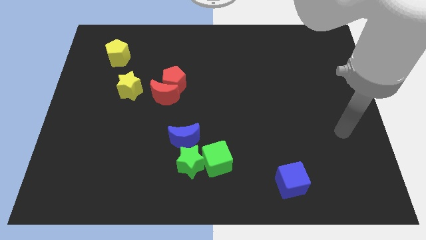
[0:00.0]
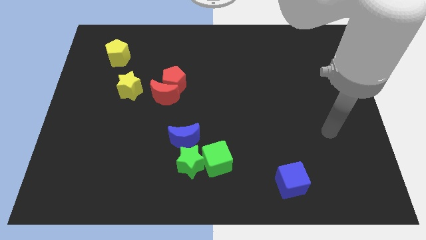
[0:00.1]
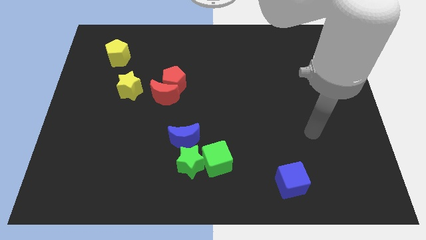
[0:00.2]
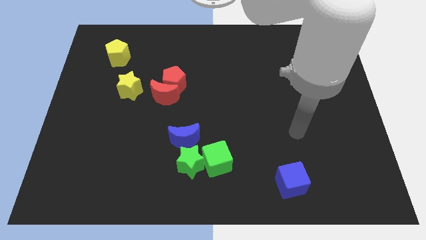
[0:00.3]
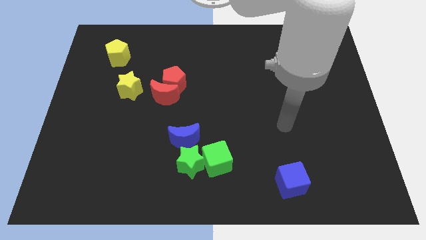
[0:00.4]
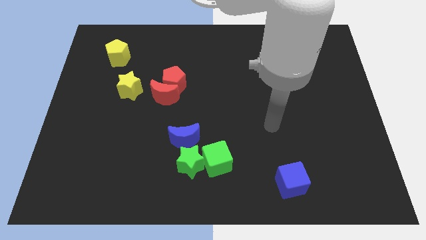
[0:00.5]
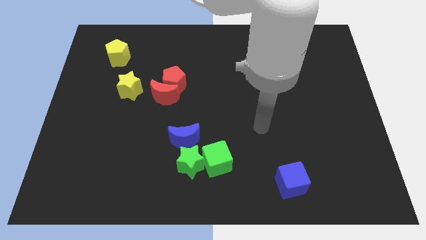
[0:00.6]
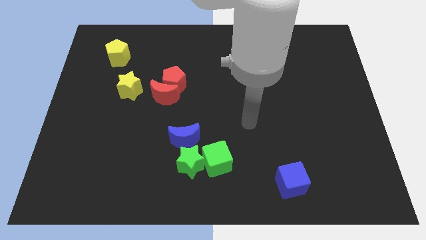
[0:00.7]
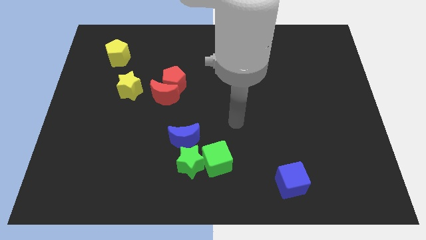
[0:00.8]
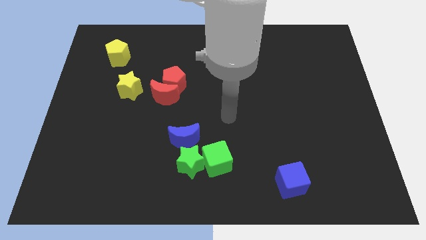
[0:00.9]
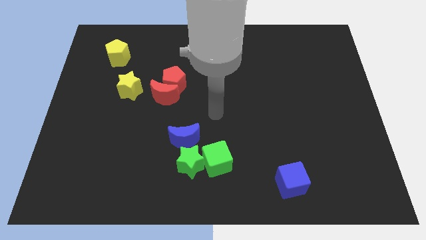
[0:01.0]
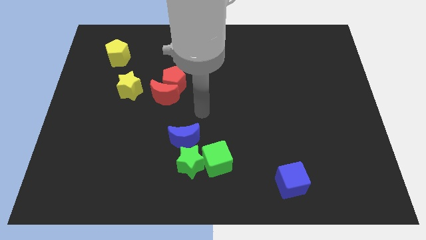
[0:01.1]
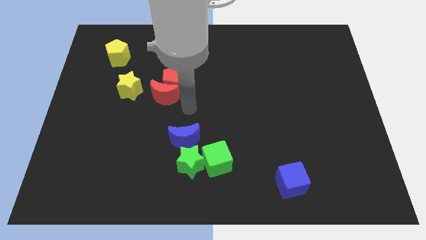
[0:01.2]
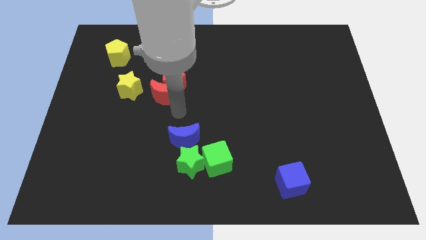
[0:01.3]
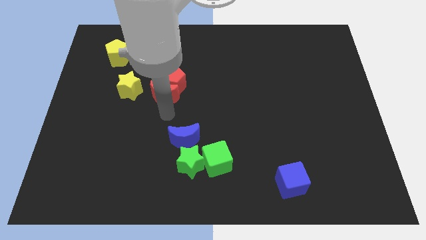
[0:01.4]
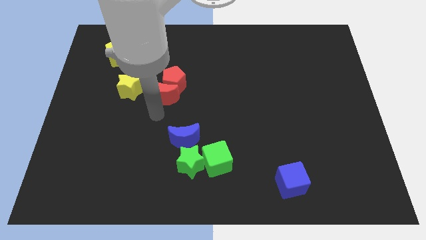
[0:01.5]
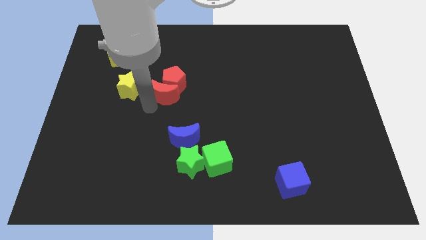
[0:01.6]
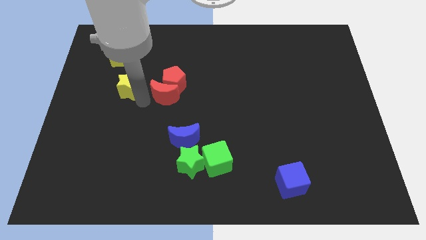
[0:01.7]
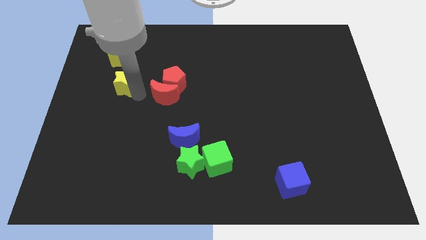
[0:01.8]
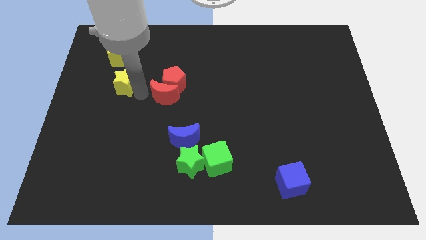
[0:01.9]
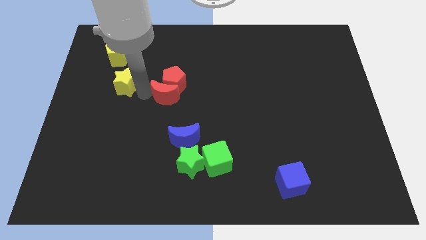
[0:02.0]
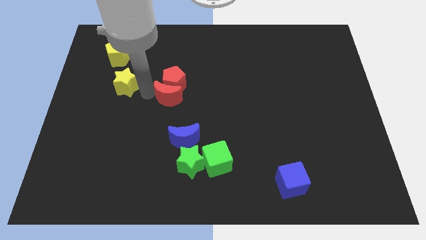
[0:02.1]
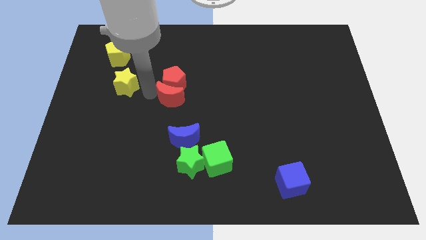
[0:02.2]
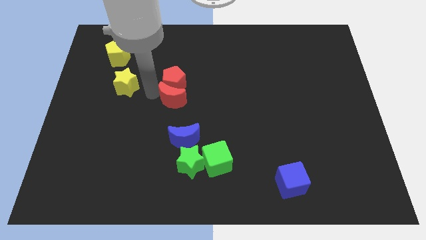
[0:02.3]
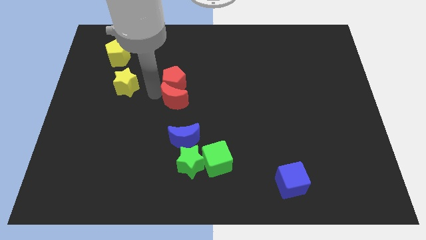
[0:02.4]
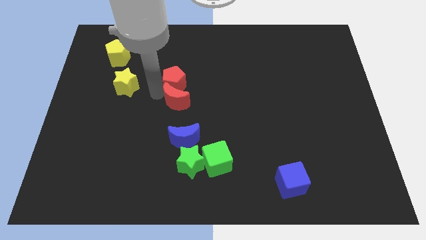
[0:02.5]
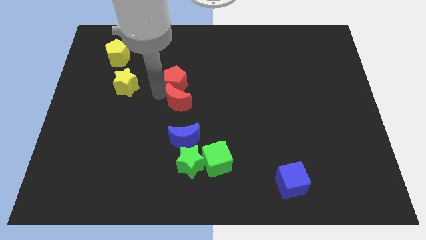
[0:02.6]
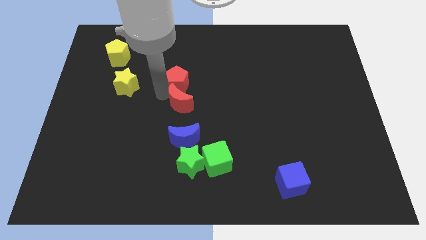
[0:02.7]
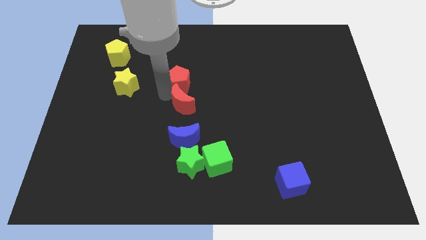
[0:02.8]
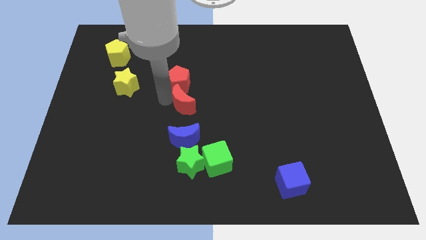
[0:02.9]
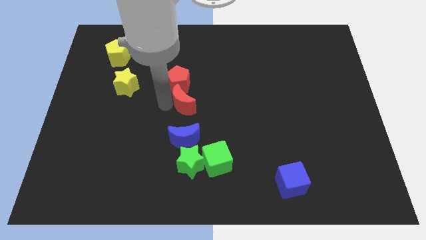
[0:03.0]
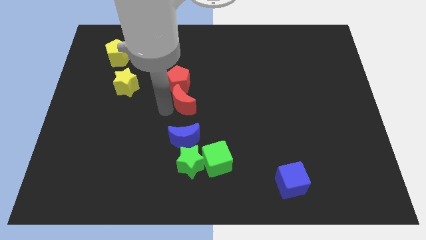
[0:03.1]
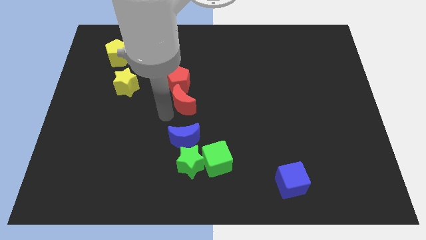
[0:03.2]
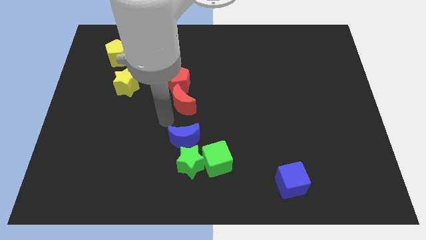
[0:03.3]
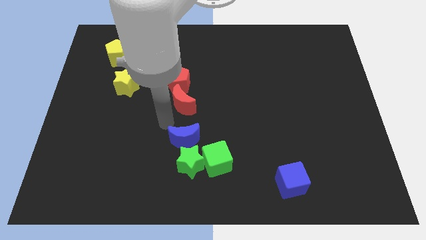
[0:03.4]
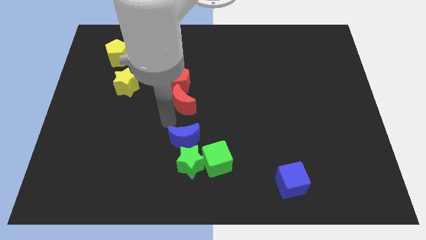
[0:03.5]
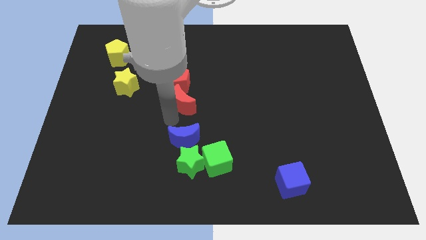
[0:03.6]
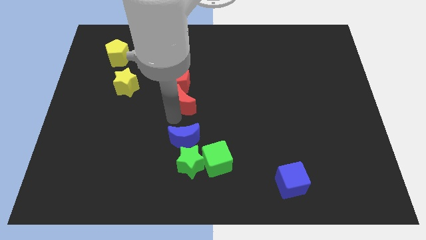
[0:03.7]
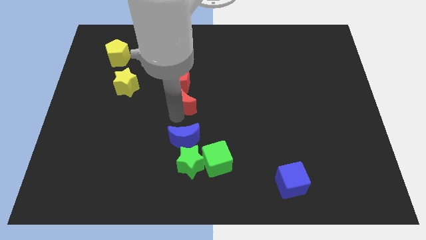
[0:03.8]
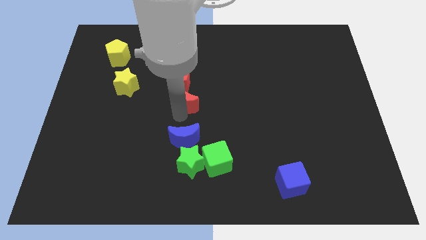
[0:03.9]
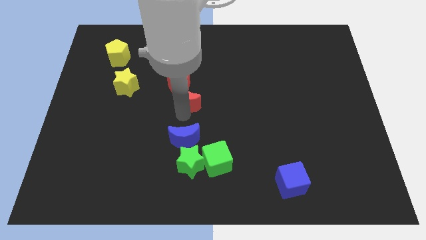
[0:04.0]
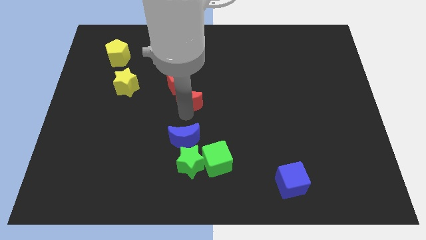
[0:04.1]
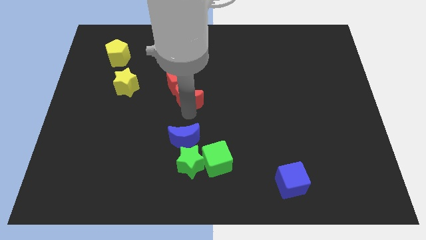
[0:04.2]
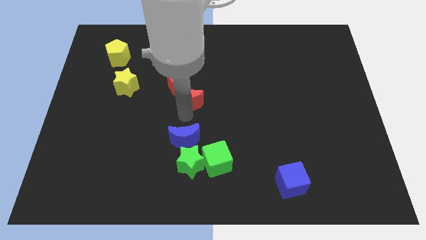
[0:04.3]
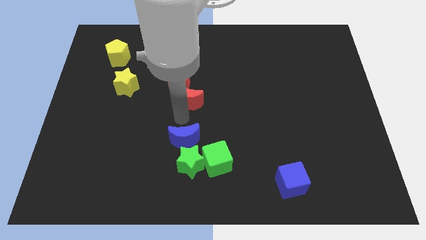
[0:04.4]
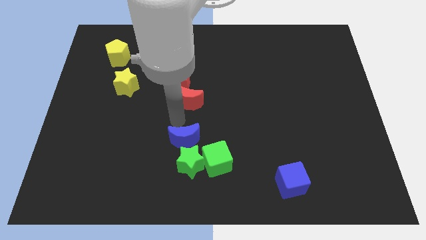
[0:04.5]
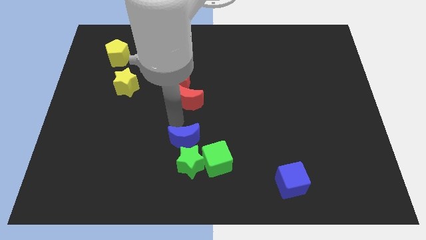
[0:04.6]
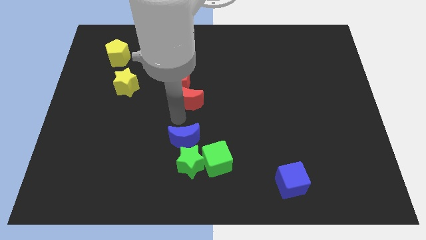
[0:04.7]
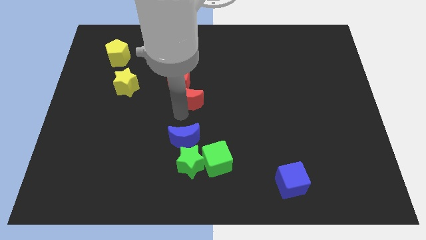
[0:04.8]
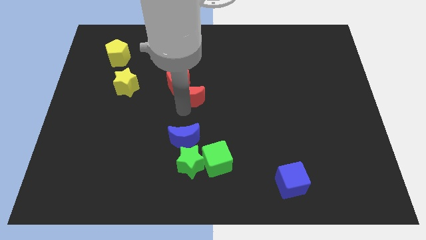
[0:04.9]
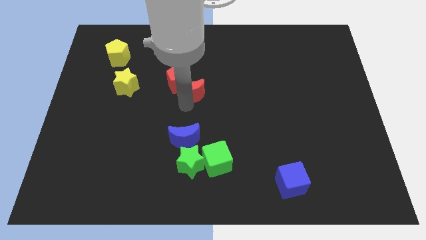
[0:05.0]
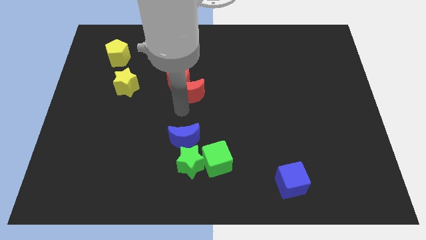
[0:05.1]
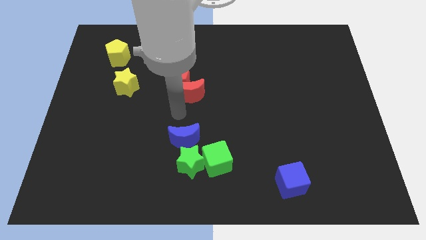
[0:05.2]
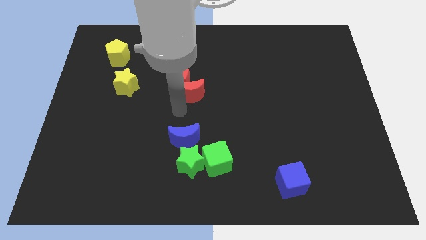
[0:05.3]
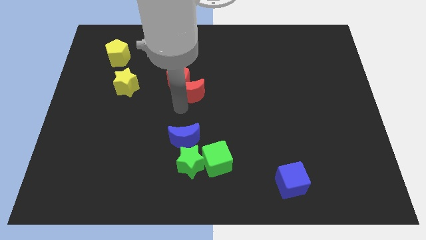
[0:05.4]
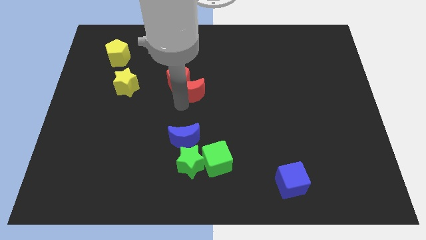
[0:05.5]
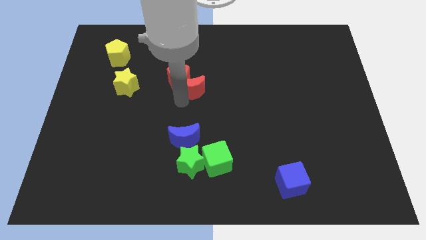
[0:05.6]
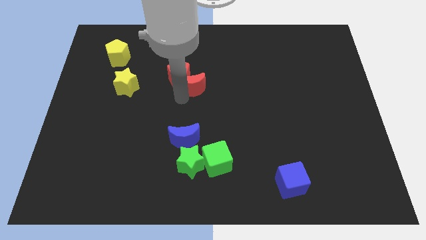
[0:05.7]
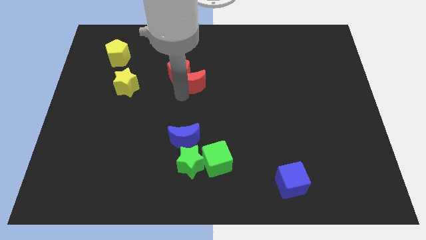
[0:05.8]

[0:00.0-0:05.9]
push the red moon diagonally upwards and right a bit

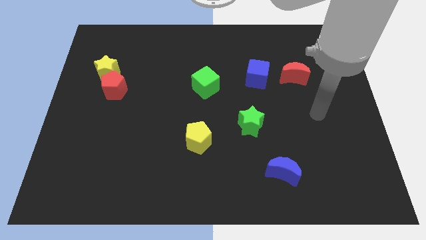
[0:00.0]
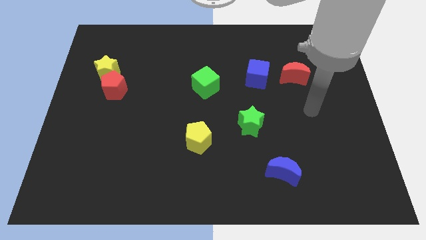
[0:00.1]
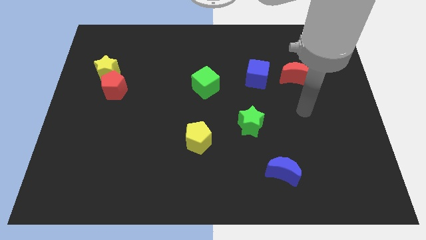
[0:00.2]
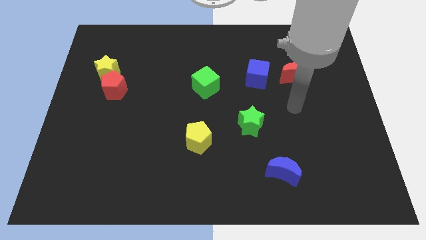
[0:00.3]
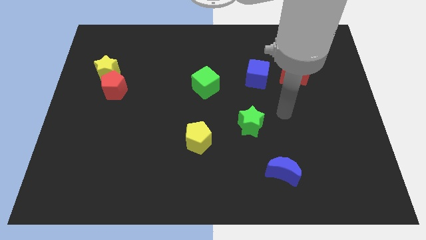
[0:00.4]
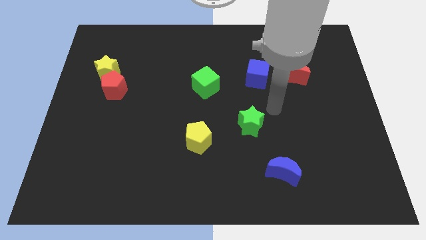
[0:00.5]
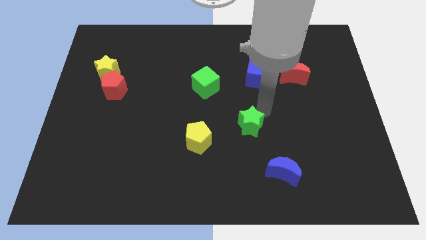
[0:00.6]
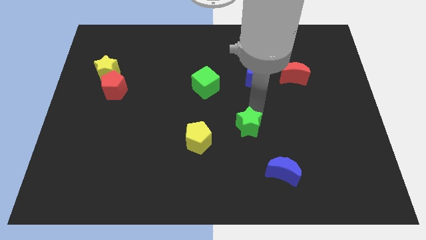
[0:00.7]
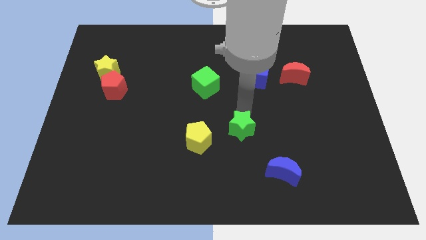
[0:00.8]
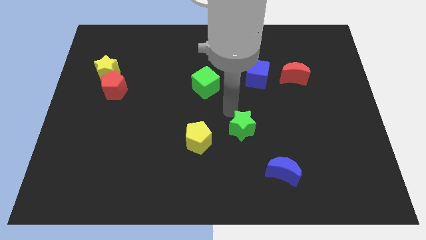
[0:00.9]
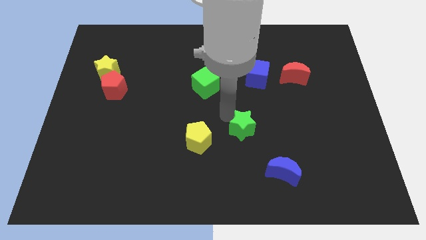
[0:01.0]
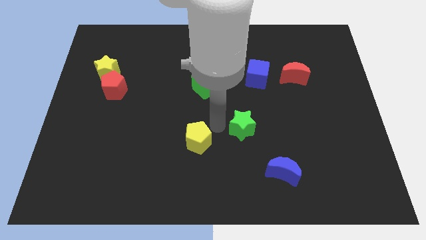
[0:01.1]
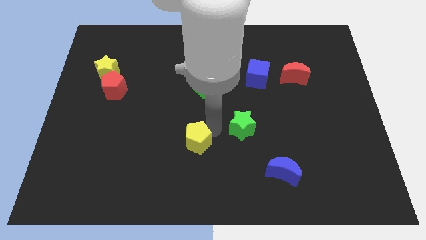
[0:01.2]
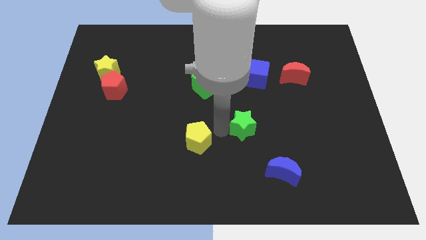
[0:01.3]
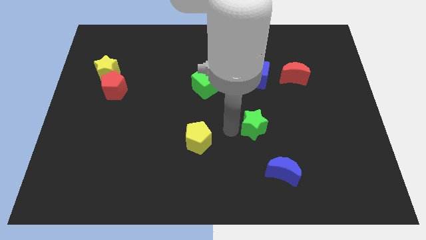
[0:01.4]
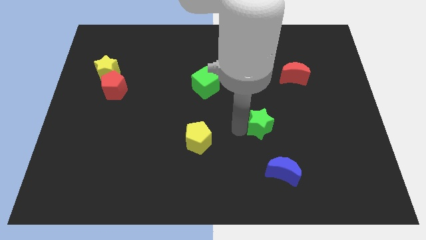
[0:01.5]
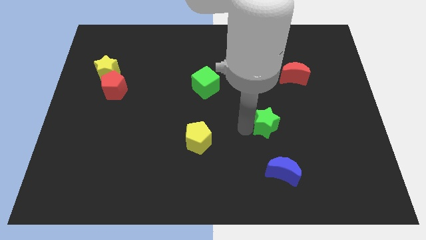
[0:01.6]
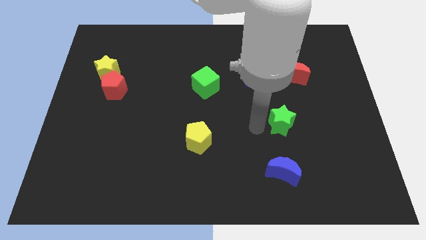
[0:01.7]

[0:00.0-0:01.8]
slightly slide the green star to the right

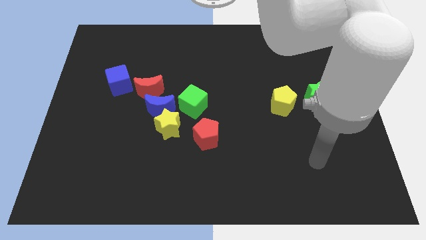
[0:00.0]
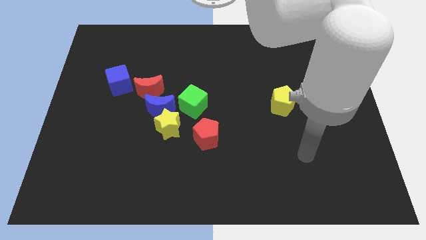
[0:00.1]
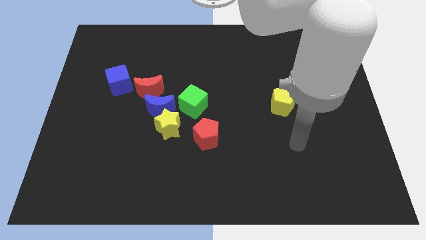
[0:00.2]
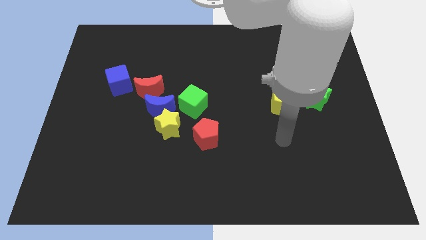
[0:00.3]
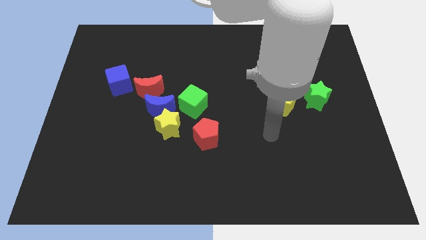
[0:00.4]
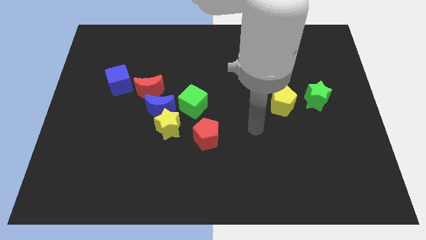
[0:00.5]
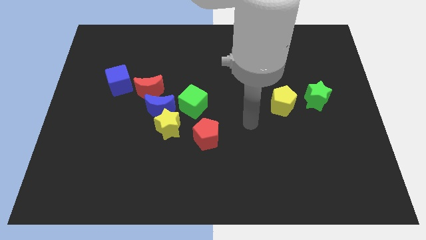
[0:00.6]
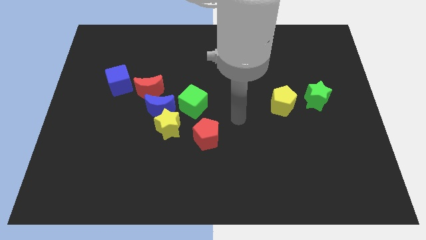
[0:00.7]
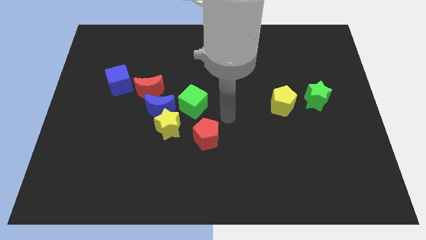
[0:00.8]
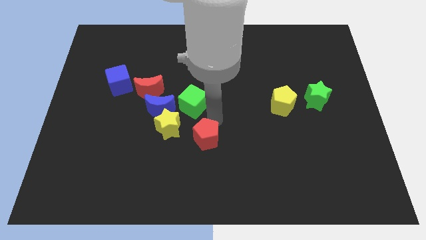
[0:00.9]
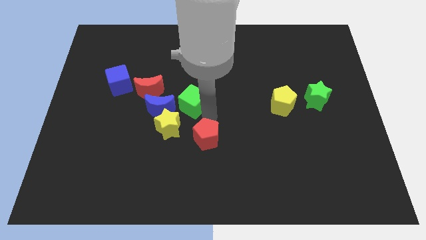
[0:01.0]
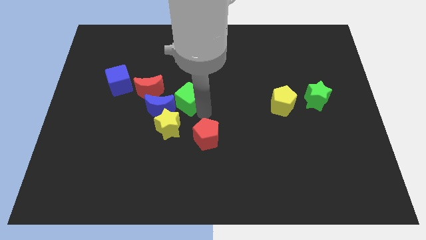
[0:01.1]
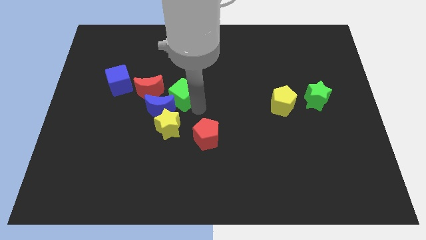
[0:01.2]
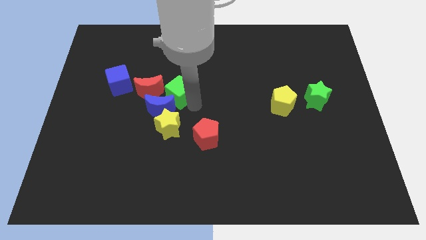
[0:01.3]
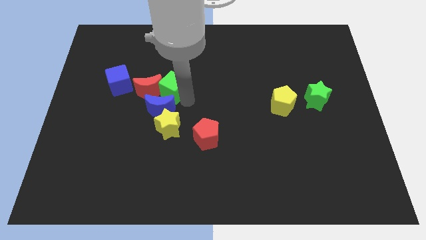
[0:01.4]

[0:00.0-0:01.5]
slightly slide the green cube up and then left
